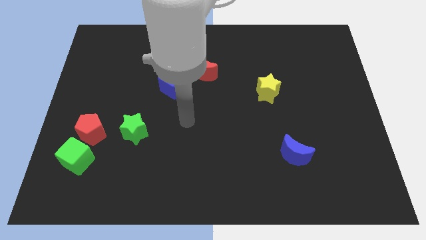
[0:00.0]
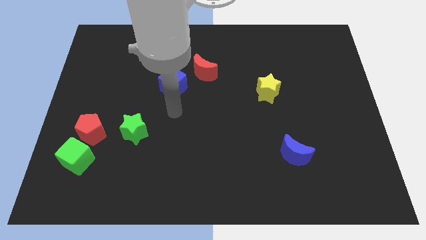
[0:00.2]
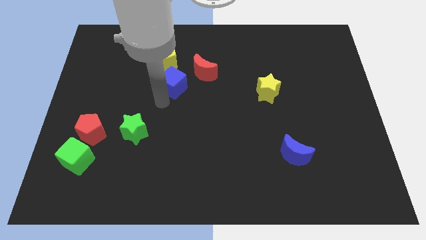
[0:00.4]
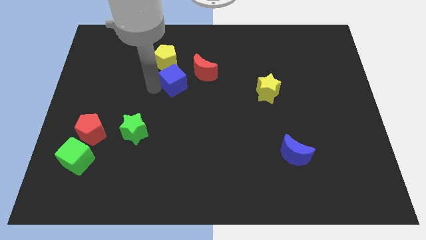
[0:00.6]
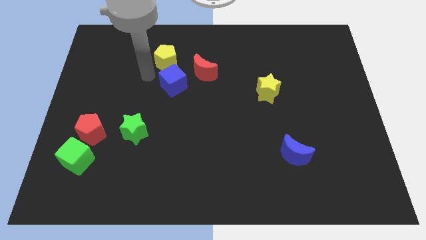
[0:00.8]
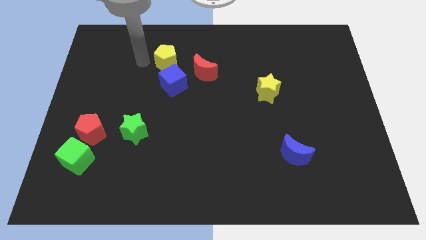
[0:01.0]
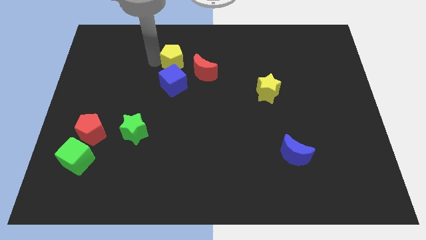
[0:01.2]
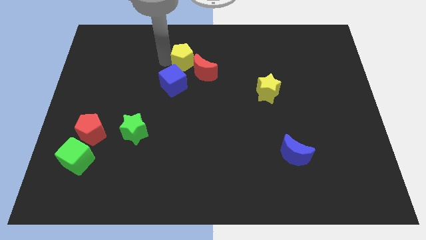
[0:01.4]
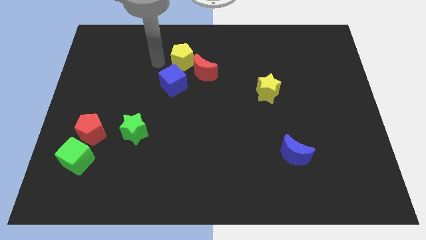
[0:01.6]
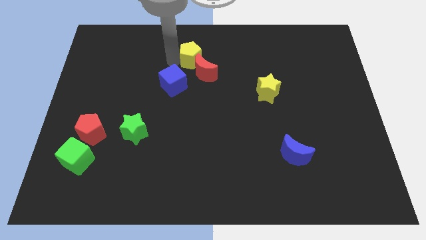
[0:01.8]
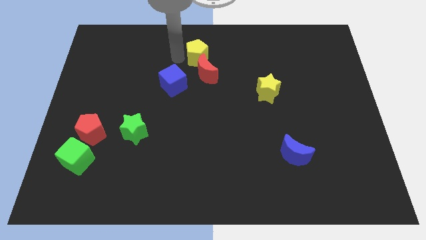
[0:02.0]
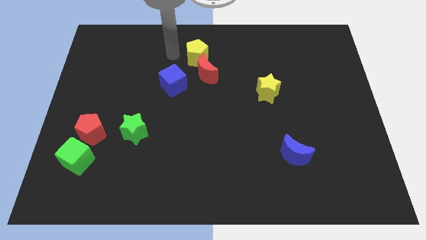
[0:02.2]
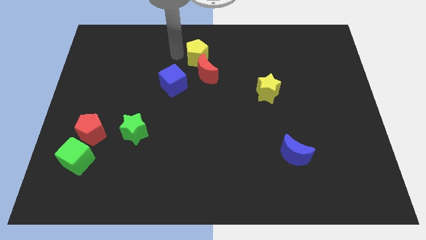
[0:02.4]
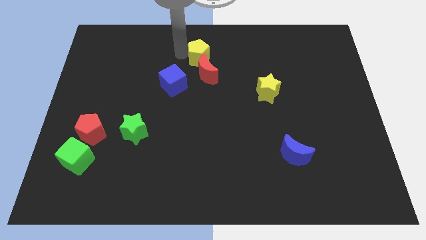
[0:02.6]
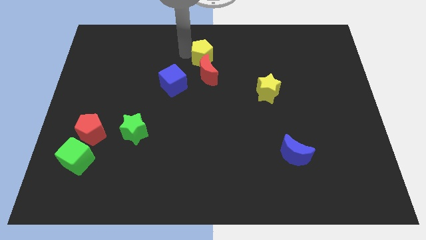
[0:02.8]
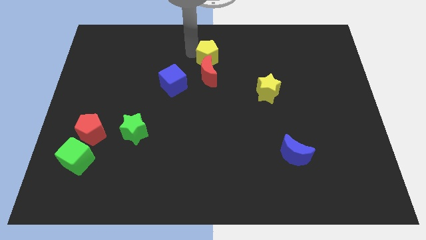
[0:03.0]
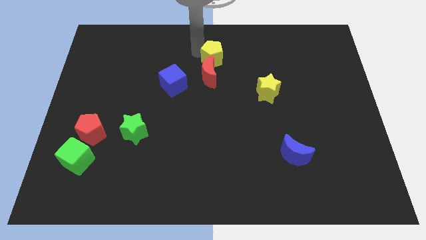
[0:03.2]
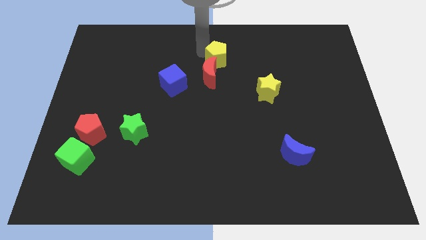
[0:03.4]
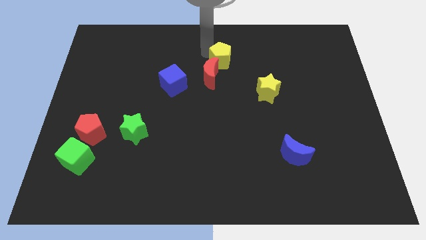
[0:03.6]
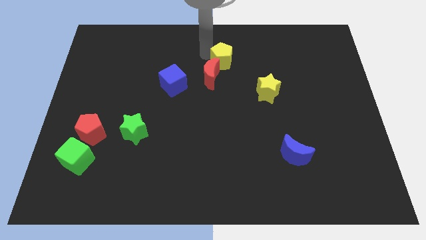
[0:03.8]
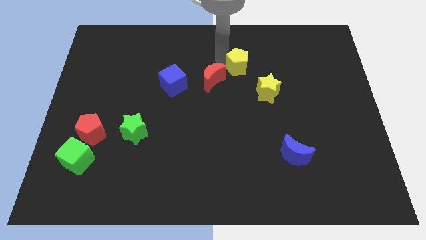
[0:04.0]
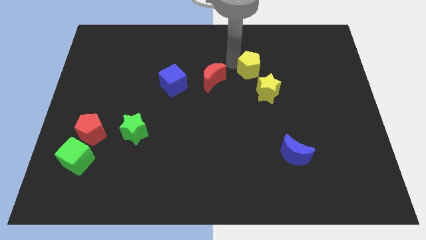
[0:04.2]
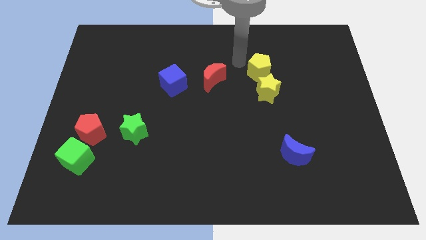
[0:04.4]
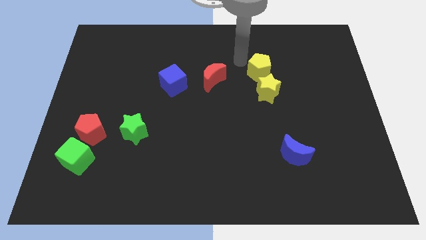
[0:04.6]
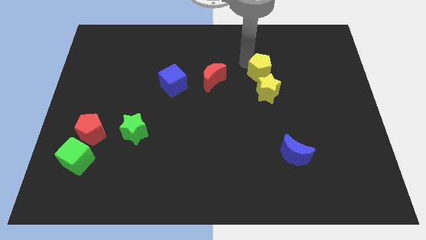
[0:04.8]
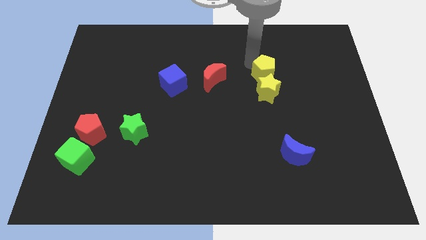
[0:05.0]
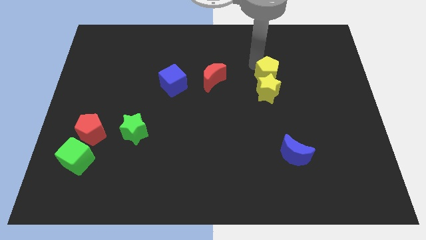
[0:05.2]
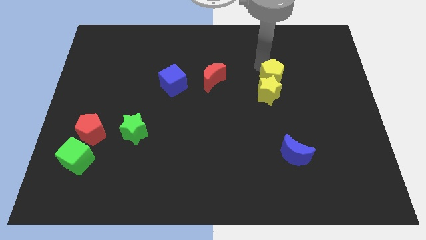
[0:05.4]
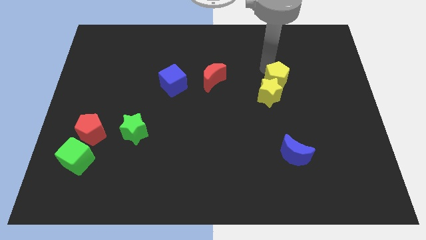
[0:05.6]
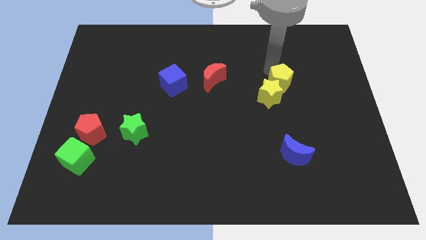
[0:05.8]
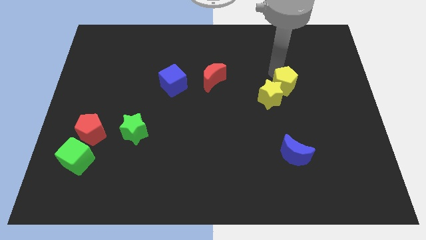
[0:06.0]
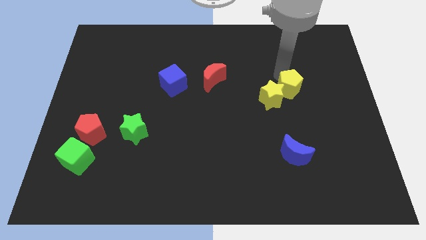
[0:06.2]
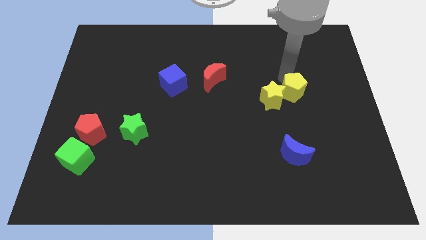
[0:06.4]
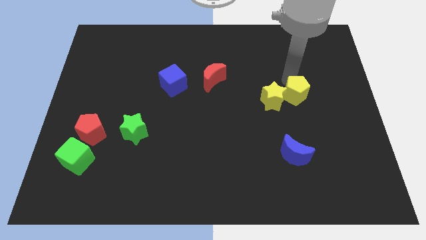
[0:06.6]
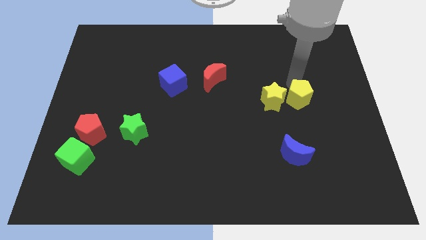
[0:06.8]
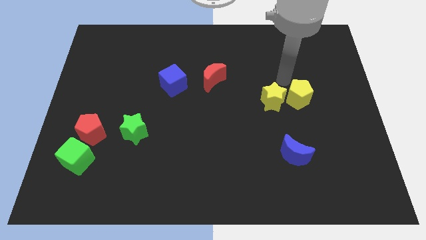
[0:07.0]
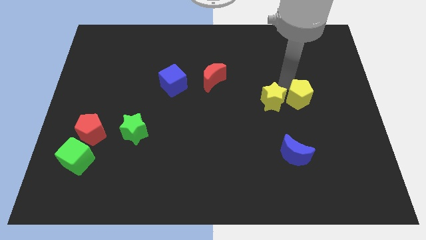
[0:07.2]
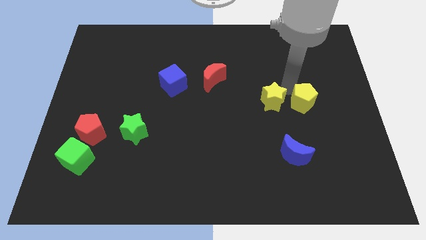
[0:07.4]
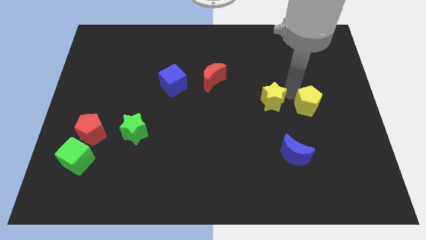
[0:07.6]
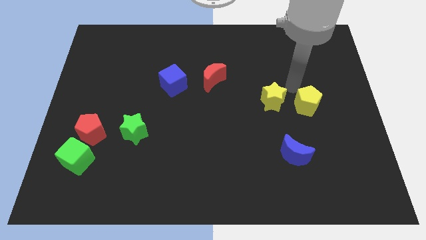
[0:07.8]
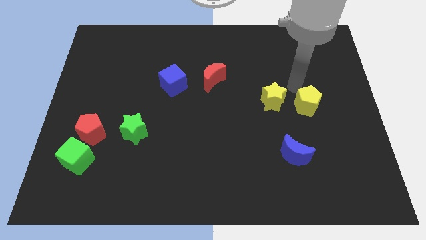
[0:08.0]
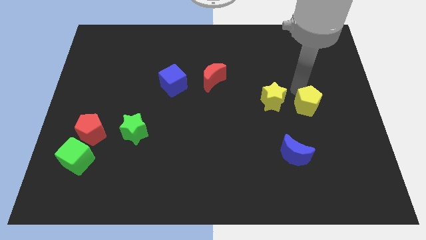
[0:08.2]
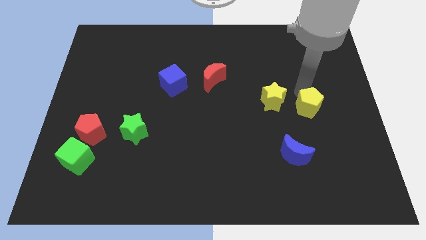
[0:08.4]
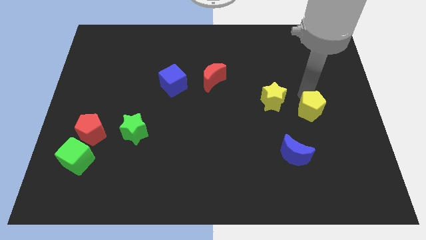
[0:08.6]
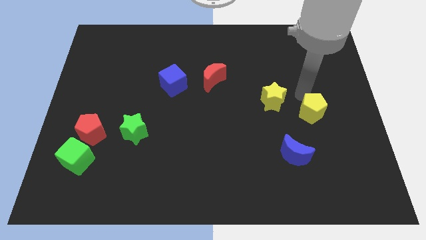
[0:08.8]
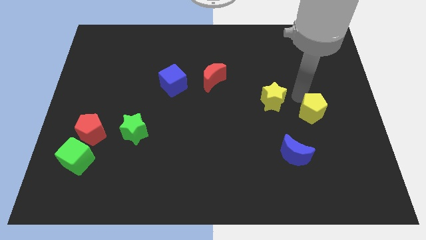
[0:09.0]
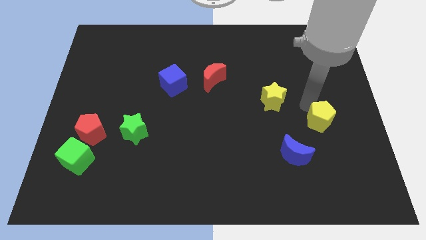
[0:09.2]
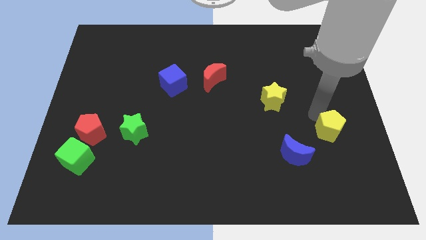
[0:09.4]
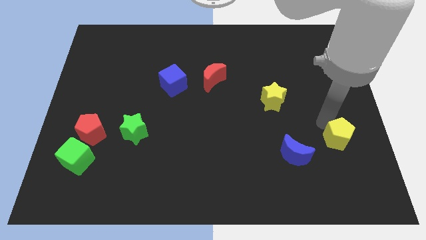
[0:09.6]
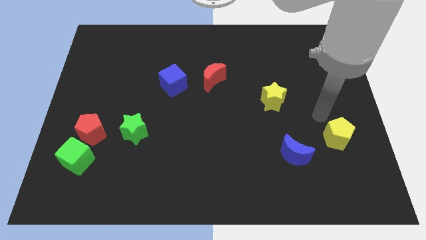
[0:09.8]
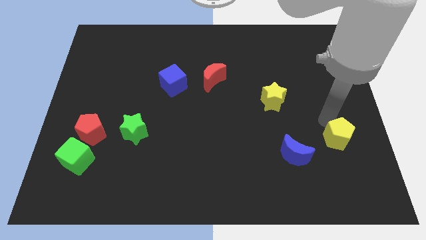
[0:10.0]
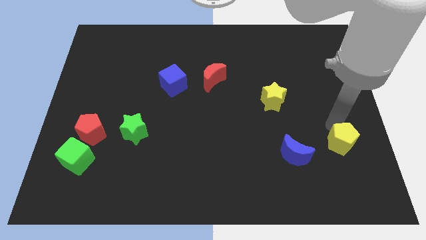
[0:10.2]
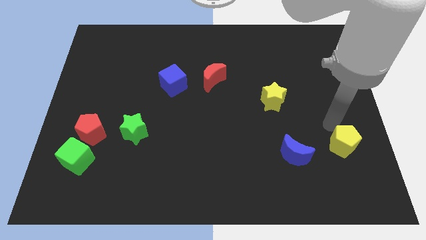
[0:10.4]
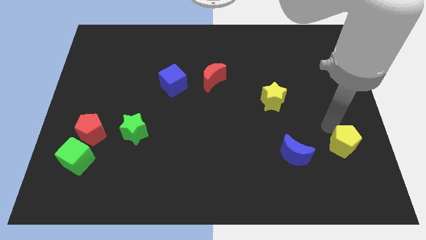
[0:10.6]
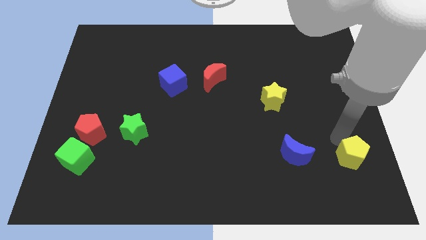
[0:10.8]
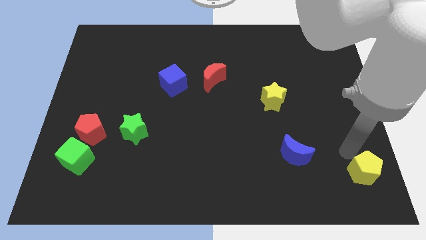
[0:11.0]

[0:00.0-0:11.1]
slide the yellow pentagon to the bottom right
